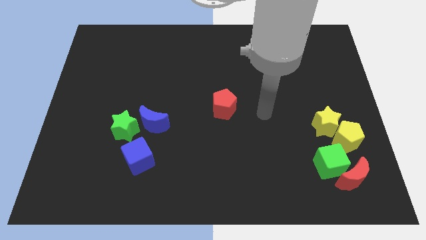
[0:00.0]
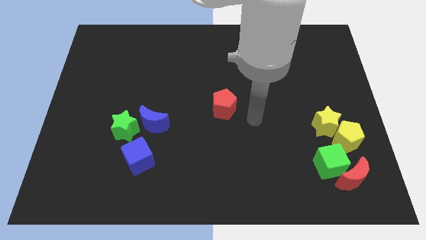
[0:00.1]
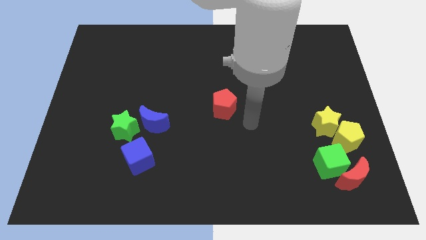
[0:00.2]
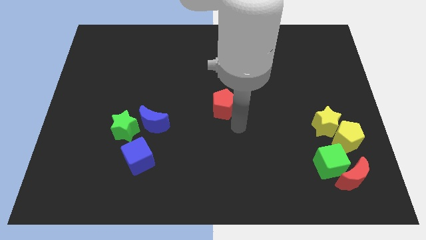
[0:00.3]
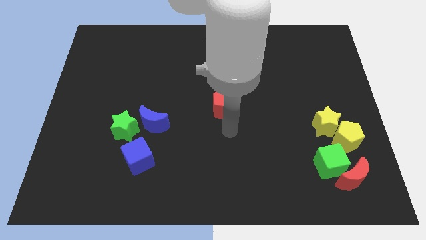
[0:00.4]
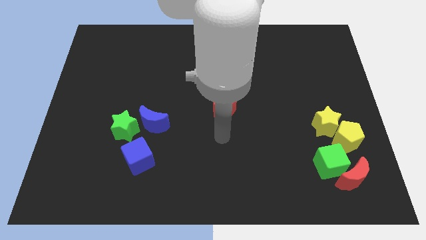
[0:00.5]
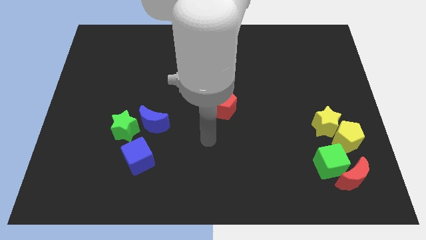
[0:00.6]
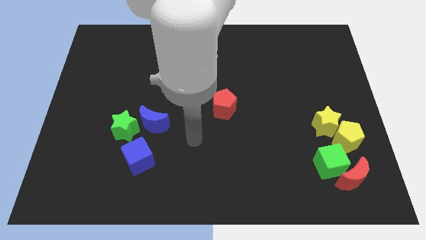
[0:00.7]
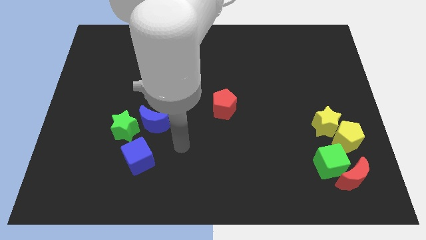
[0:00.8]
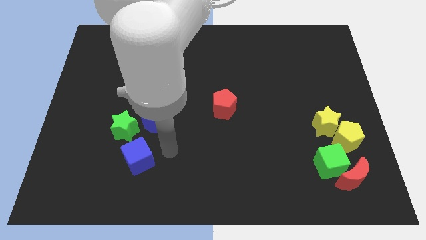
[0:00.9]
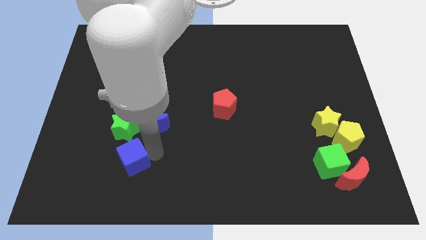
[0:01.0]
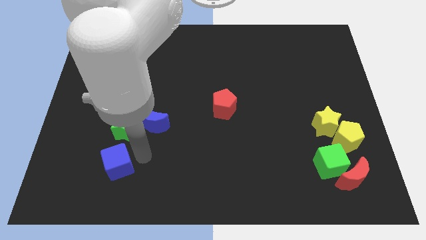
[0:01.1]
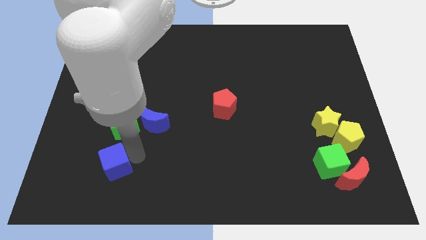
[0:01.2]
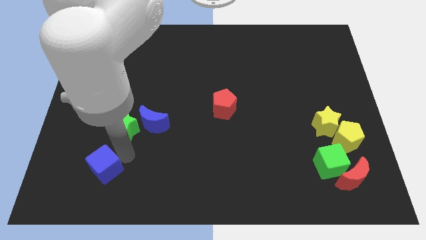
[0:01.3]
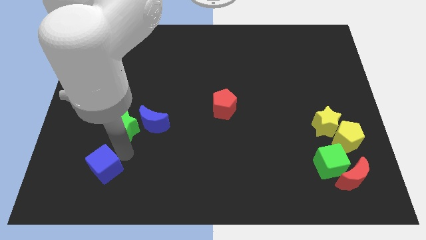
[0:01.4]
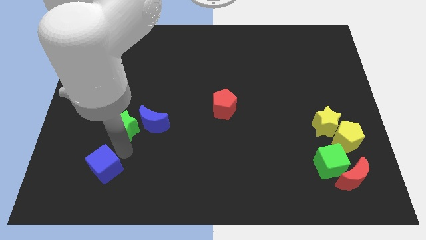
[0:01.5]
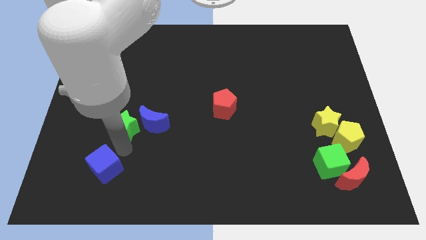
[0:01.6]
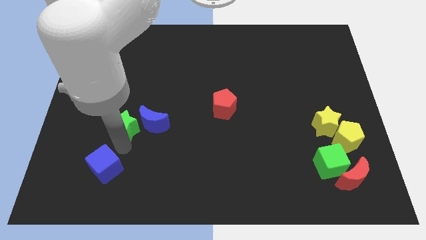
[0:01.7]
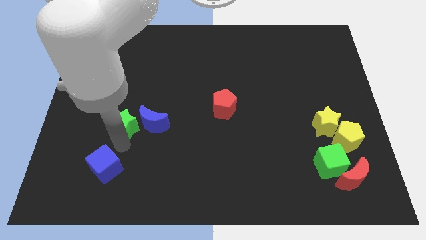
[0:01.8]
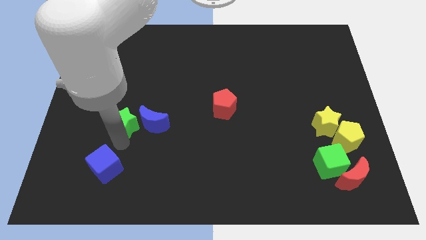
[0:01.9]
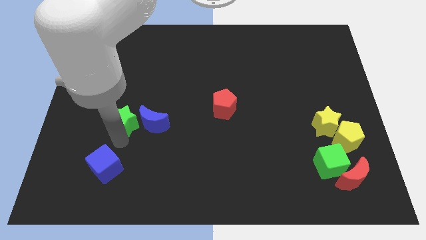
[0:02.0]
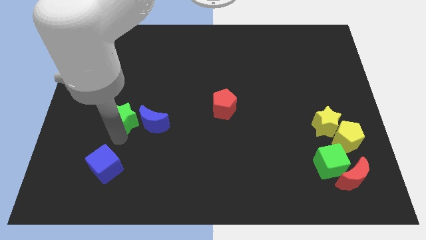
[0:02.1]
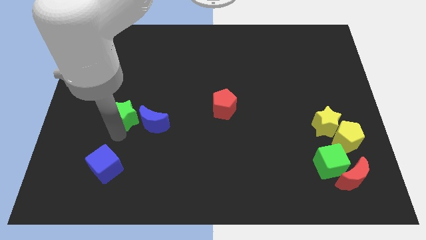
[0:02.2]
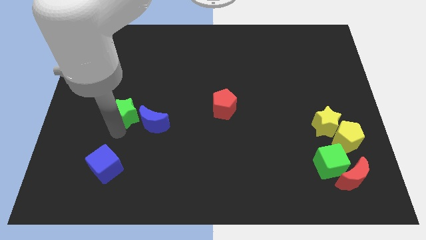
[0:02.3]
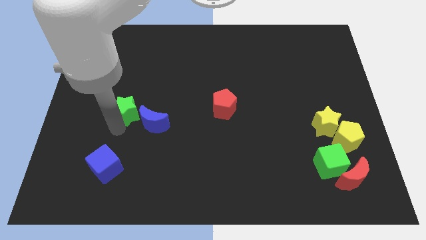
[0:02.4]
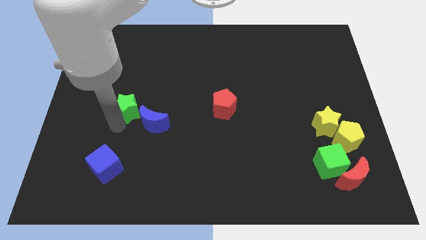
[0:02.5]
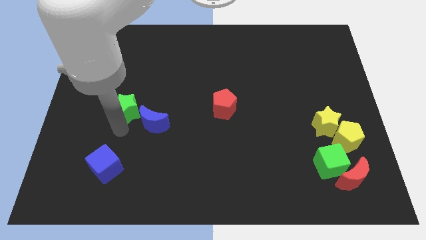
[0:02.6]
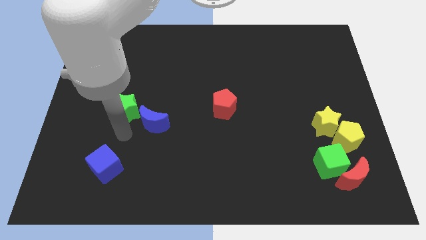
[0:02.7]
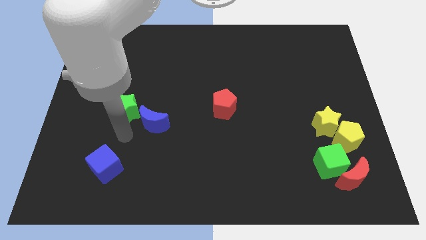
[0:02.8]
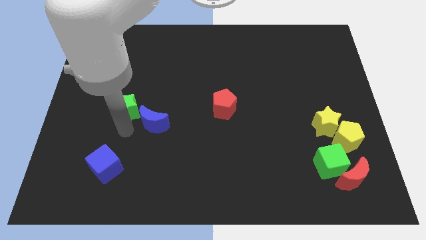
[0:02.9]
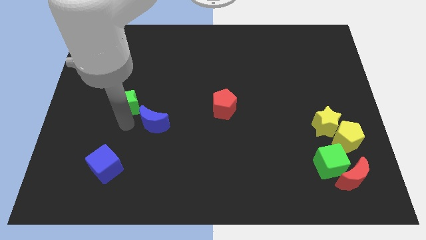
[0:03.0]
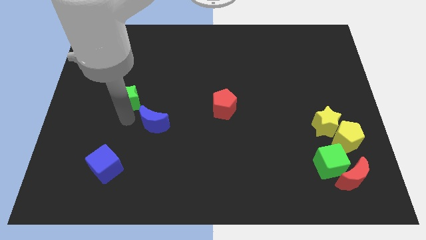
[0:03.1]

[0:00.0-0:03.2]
slide the green star a little bit upwards

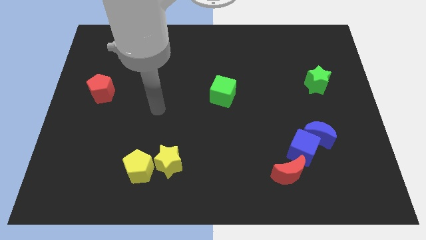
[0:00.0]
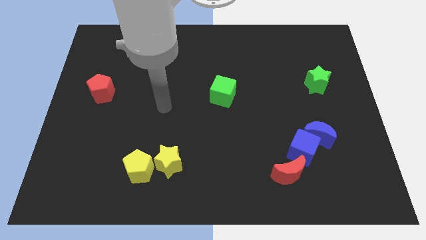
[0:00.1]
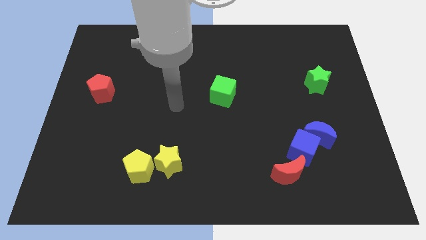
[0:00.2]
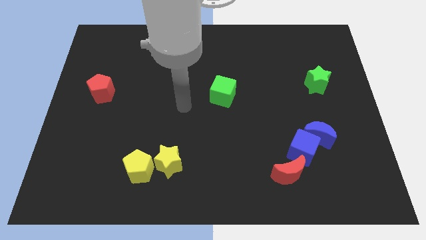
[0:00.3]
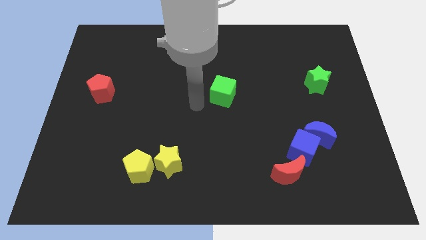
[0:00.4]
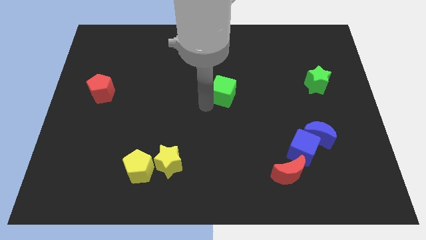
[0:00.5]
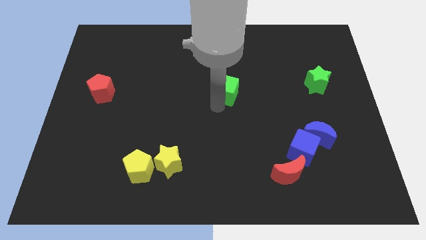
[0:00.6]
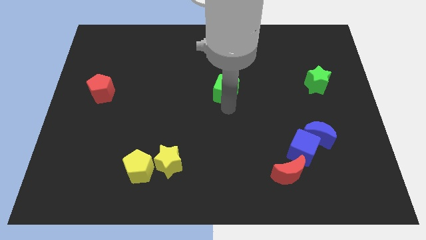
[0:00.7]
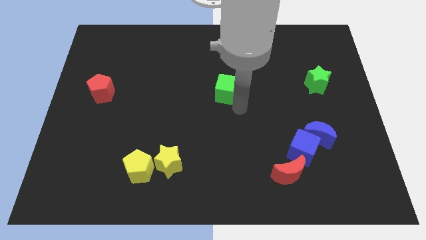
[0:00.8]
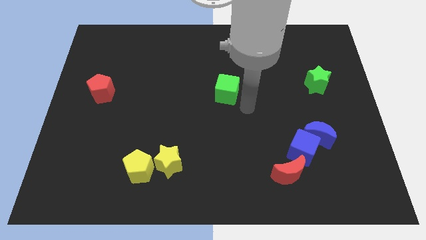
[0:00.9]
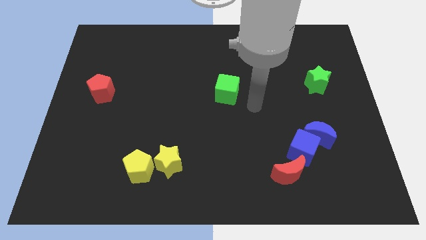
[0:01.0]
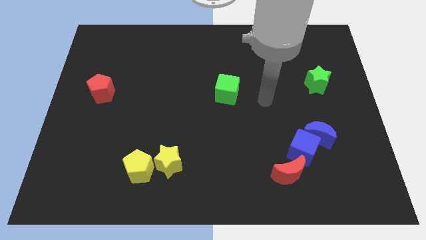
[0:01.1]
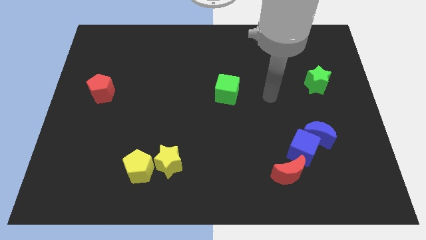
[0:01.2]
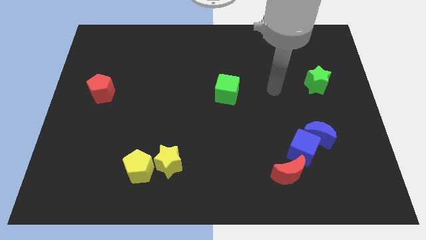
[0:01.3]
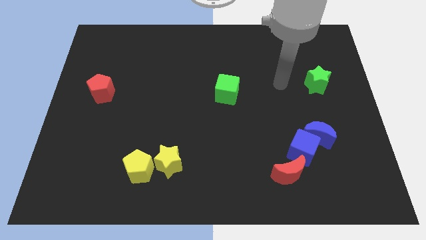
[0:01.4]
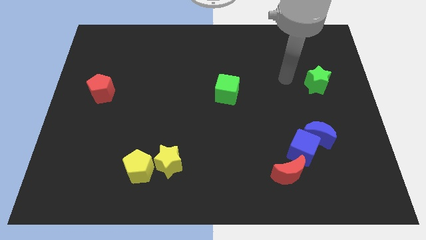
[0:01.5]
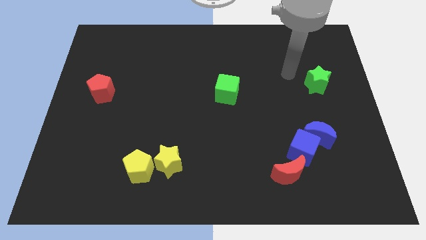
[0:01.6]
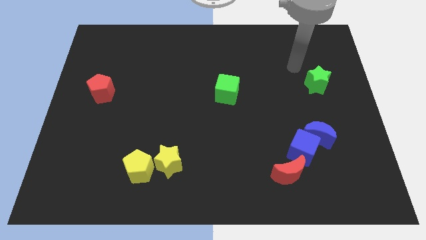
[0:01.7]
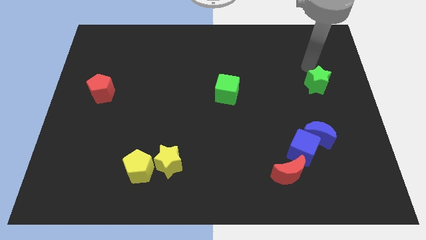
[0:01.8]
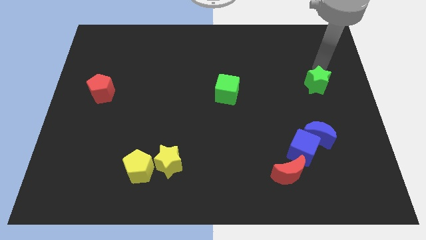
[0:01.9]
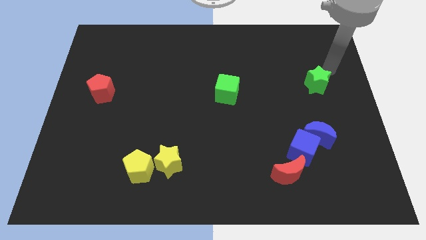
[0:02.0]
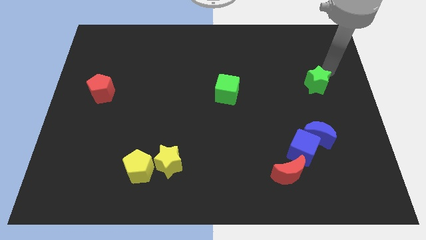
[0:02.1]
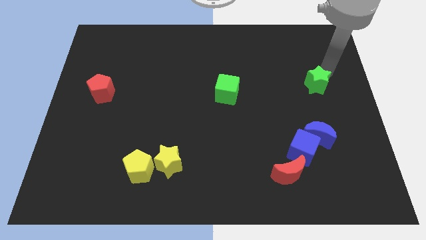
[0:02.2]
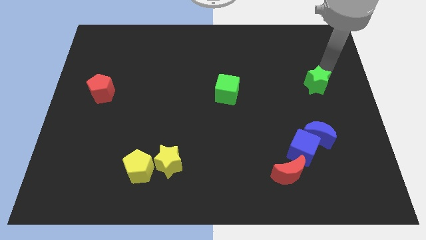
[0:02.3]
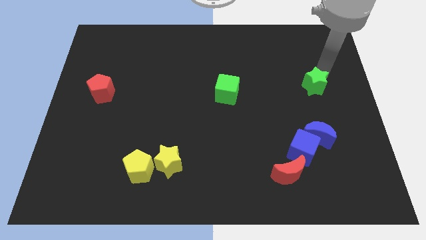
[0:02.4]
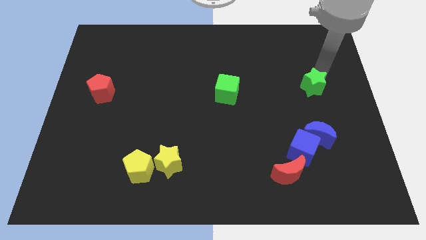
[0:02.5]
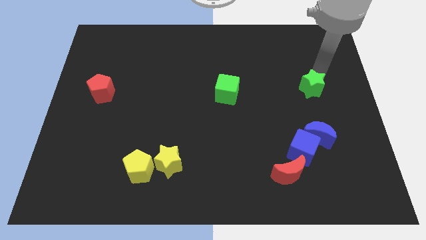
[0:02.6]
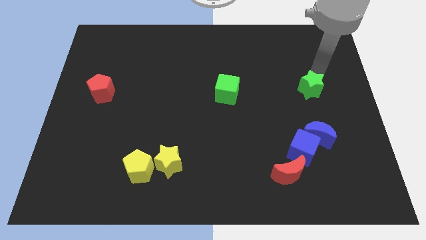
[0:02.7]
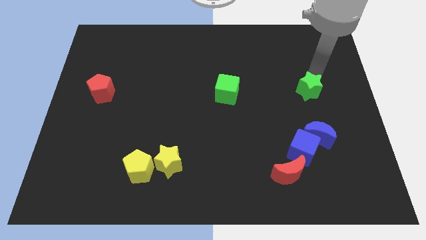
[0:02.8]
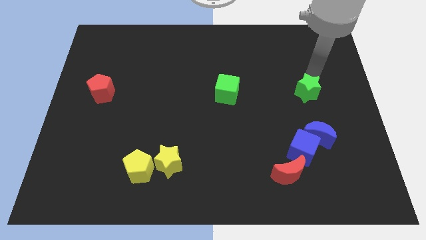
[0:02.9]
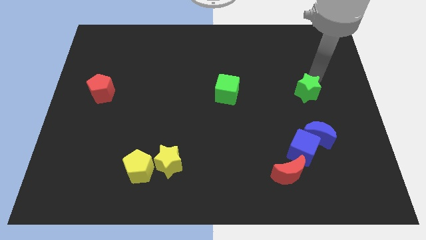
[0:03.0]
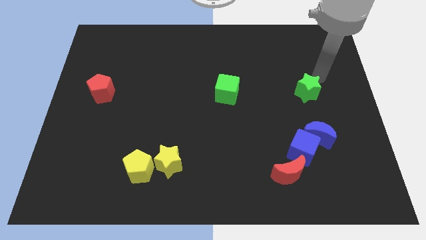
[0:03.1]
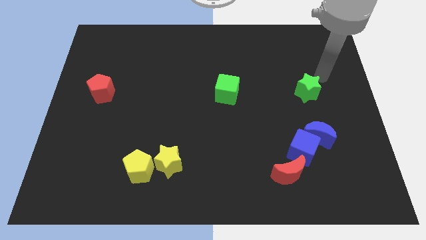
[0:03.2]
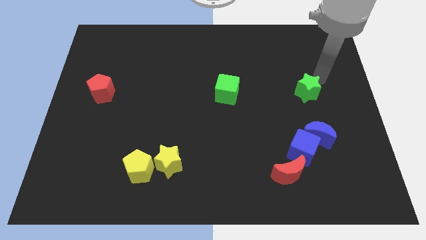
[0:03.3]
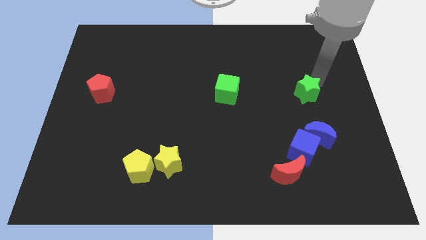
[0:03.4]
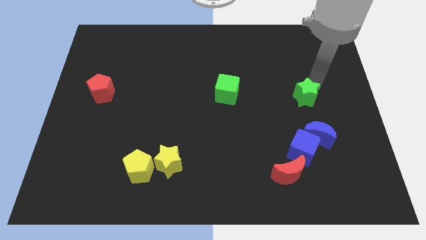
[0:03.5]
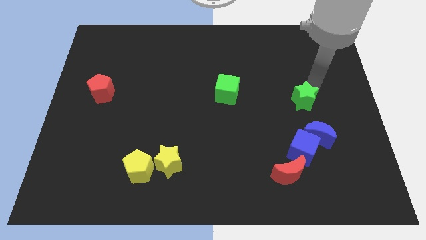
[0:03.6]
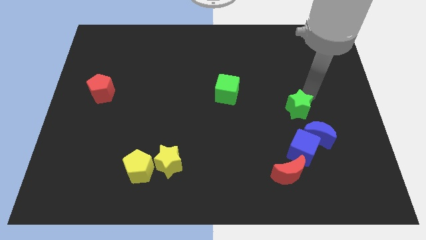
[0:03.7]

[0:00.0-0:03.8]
move the green star down and to the left diagonally somewhat

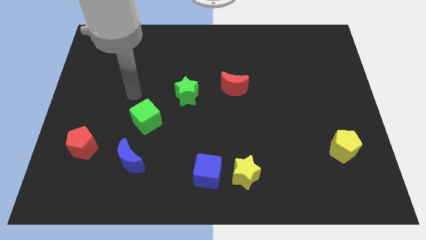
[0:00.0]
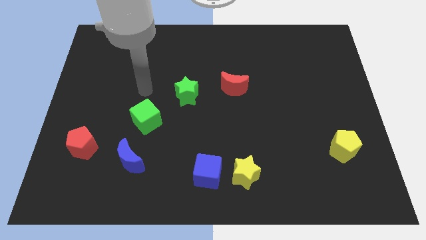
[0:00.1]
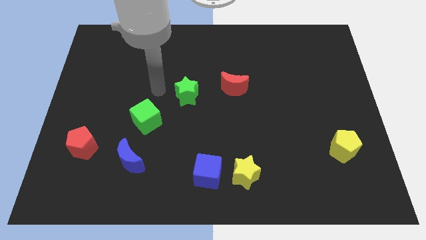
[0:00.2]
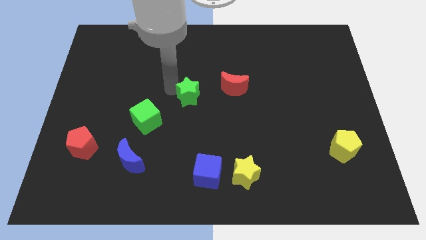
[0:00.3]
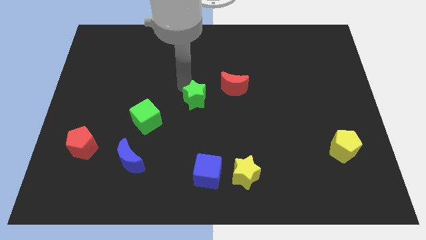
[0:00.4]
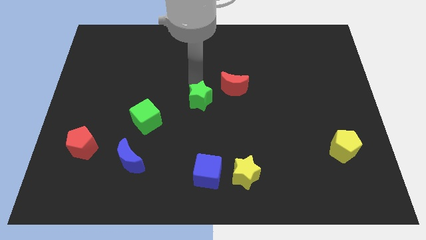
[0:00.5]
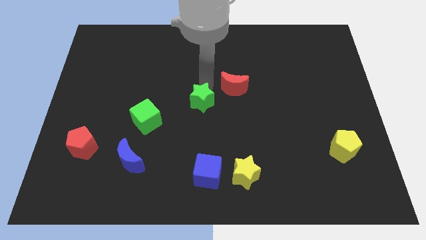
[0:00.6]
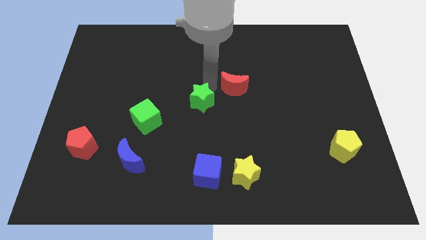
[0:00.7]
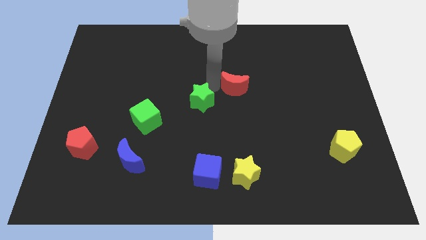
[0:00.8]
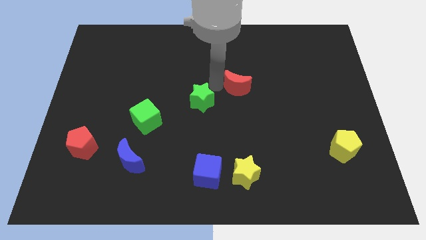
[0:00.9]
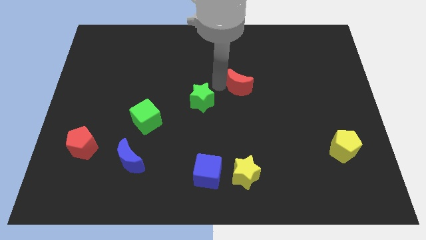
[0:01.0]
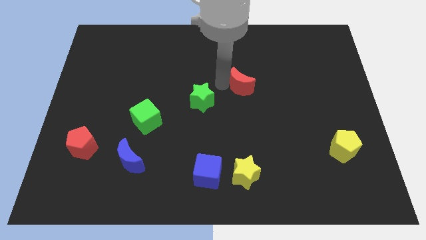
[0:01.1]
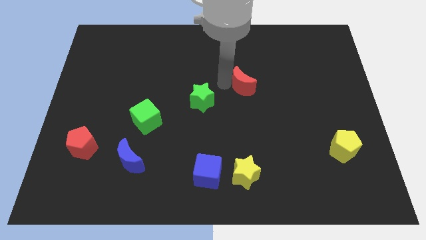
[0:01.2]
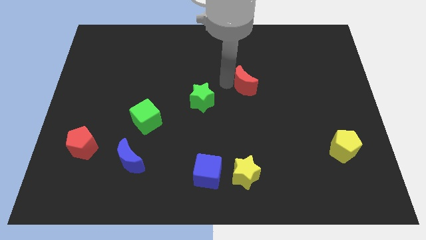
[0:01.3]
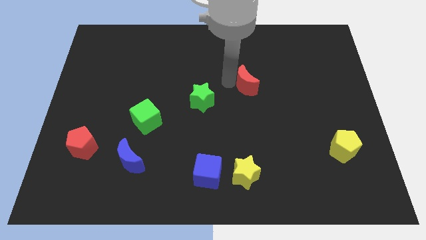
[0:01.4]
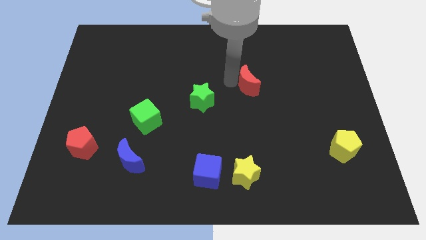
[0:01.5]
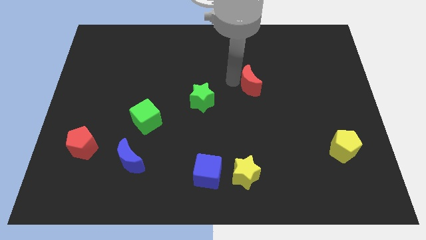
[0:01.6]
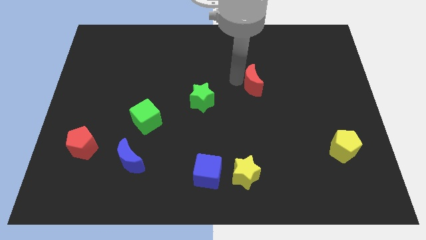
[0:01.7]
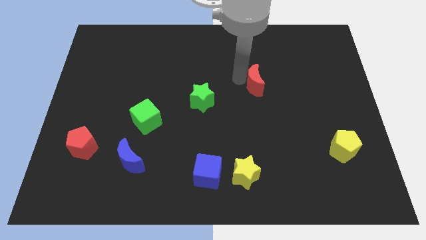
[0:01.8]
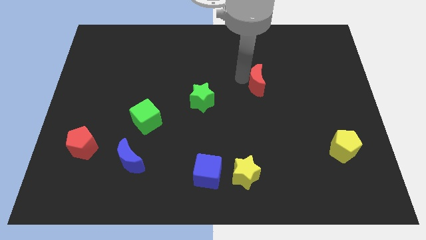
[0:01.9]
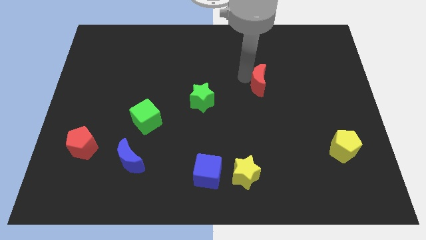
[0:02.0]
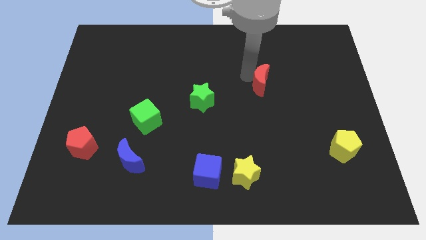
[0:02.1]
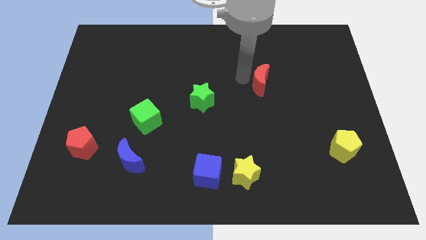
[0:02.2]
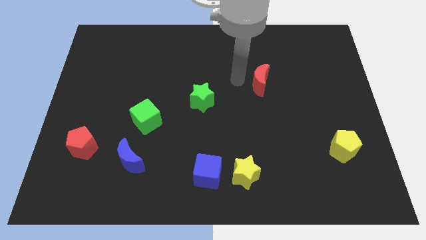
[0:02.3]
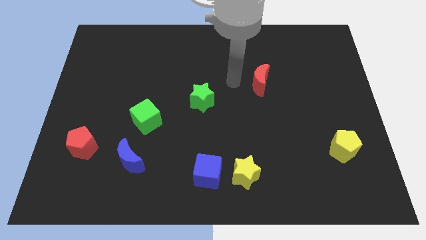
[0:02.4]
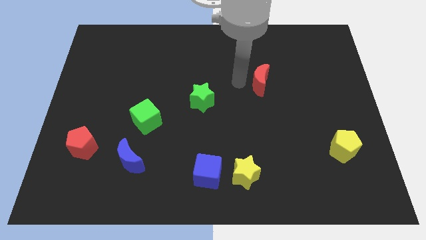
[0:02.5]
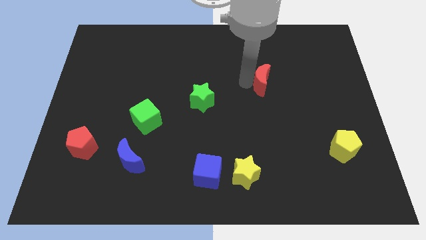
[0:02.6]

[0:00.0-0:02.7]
move the red moon somewhat to the right
